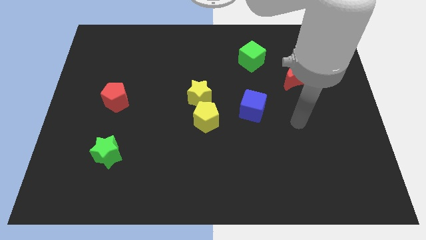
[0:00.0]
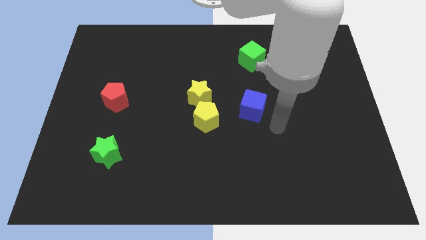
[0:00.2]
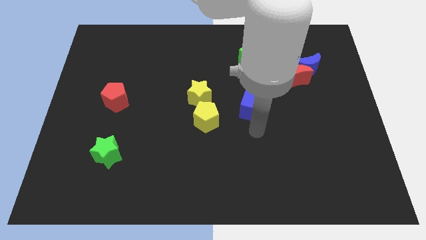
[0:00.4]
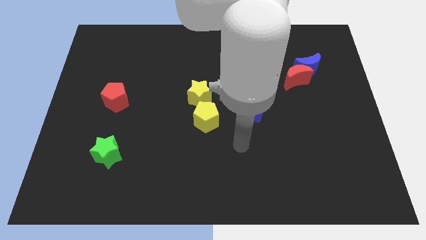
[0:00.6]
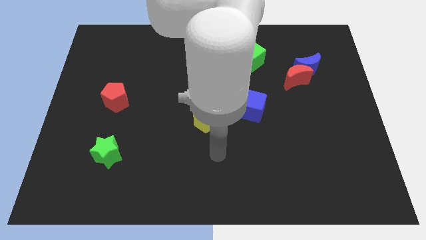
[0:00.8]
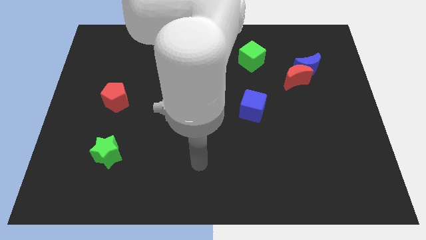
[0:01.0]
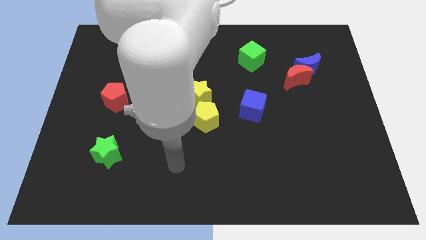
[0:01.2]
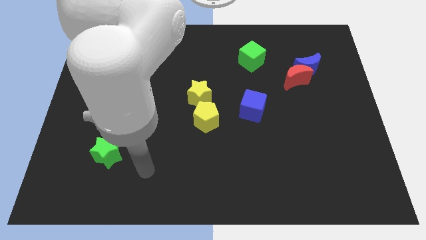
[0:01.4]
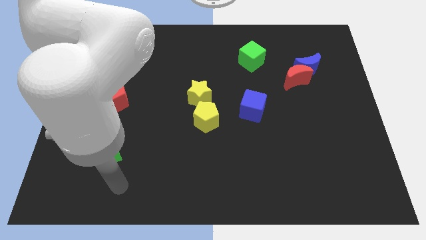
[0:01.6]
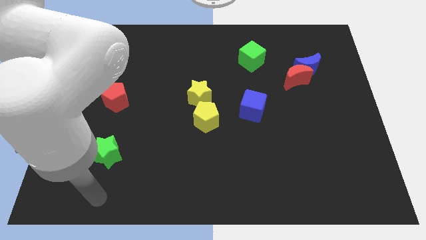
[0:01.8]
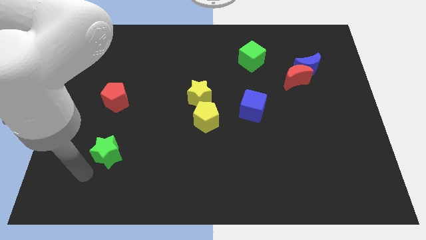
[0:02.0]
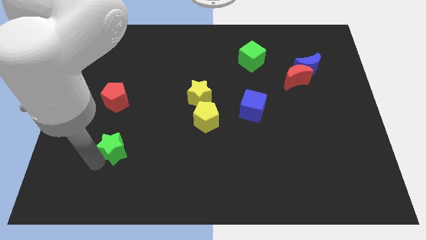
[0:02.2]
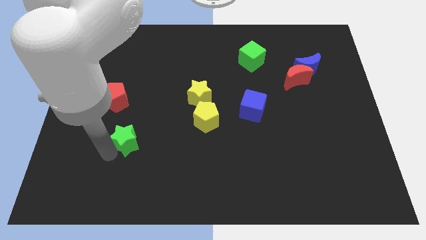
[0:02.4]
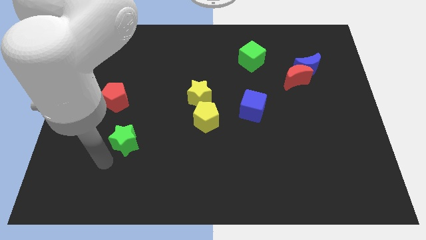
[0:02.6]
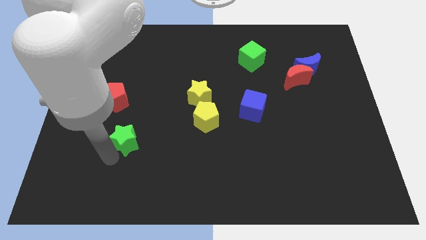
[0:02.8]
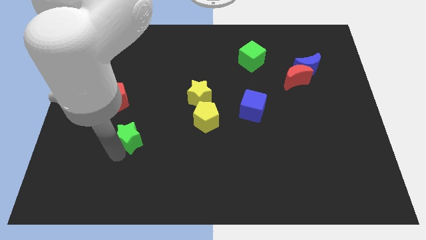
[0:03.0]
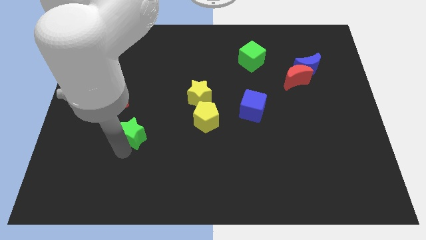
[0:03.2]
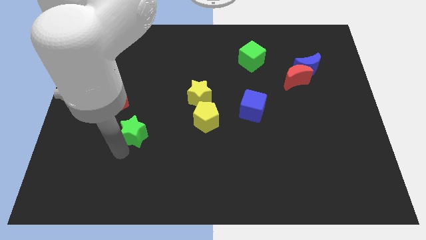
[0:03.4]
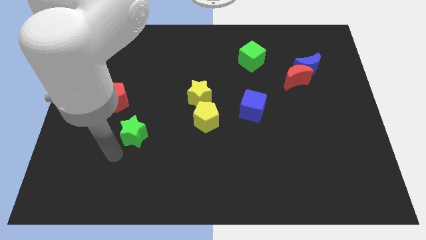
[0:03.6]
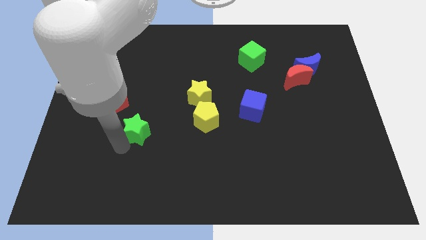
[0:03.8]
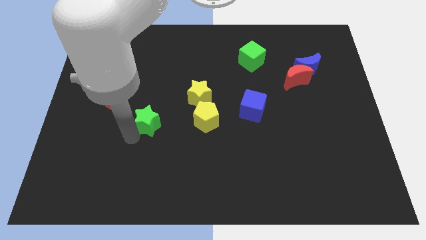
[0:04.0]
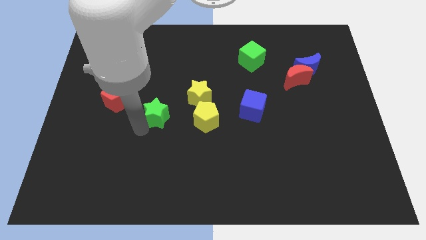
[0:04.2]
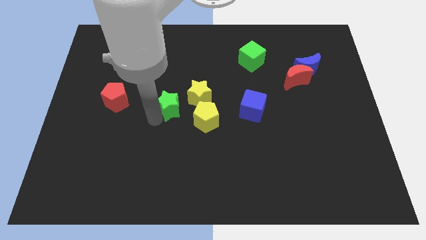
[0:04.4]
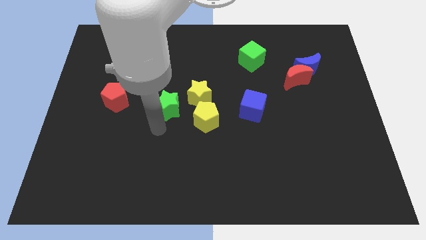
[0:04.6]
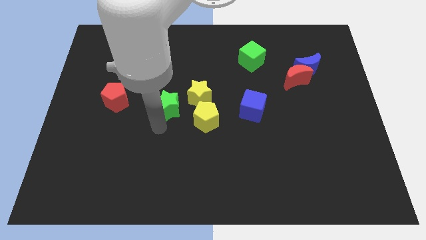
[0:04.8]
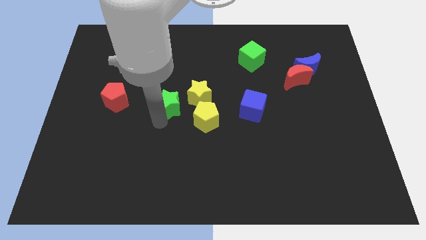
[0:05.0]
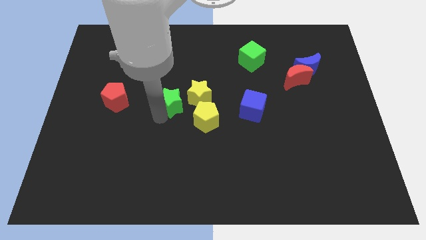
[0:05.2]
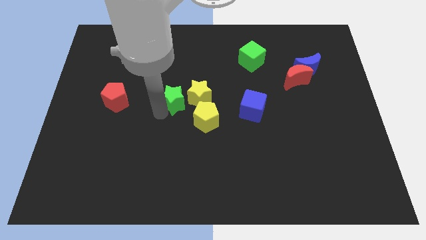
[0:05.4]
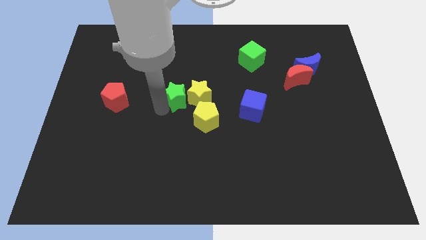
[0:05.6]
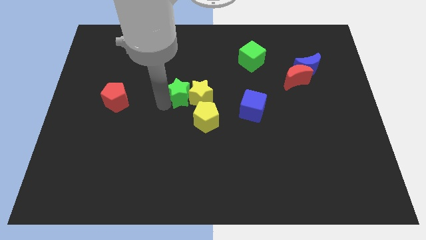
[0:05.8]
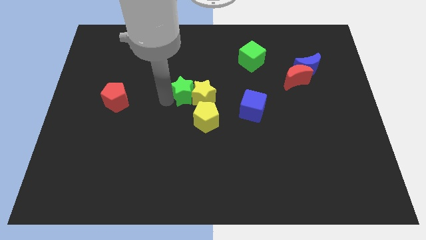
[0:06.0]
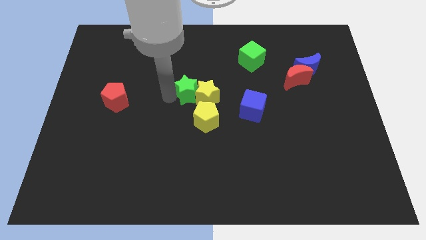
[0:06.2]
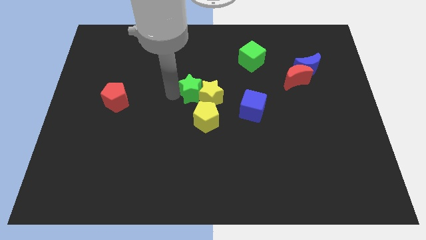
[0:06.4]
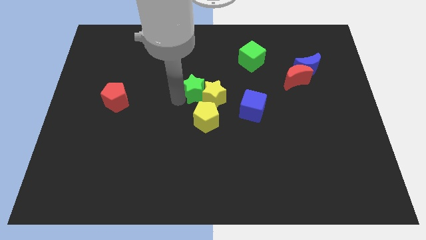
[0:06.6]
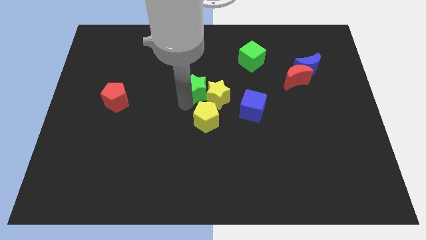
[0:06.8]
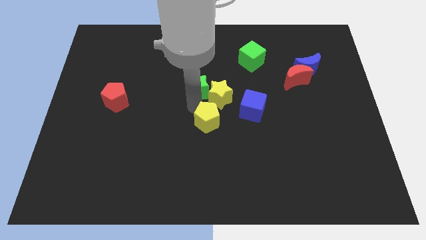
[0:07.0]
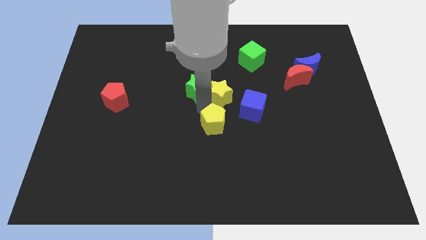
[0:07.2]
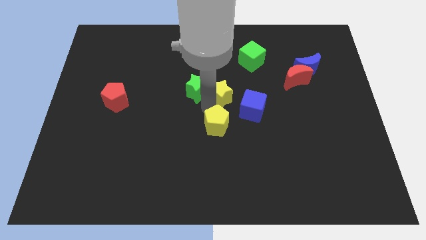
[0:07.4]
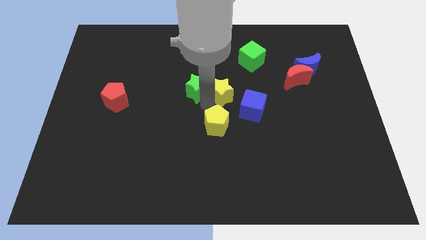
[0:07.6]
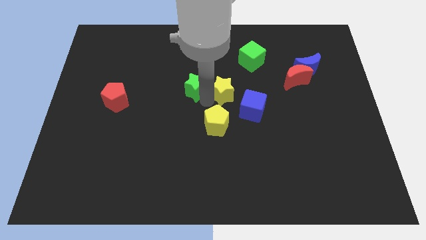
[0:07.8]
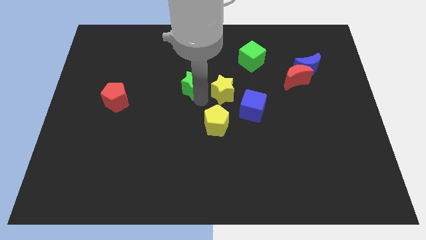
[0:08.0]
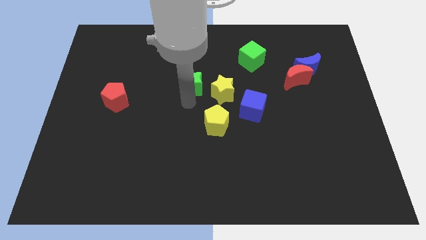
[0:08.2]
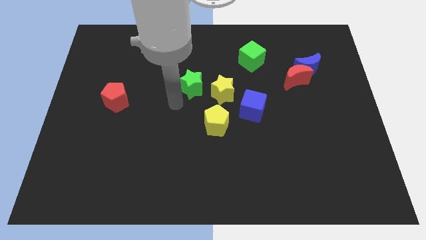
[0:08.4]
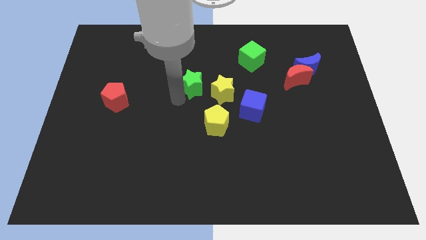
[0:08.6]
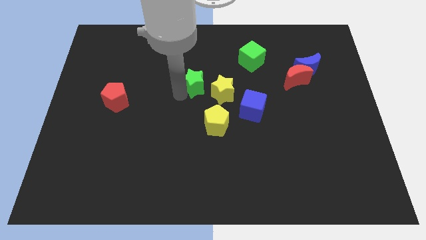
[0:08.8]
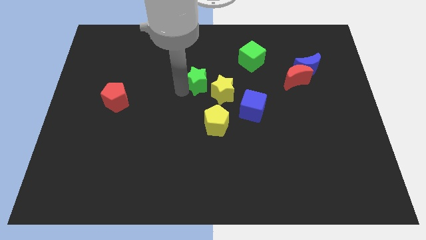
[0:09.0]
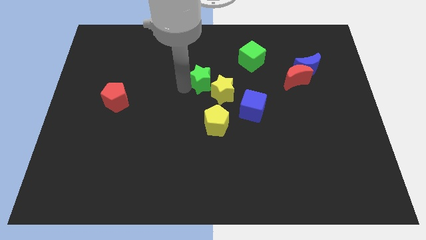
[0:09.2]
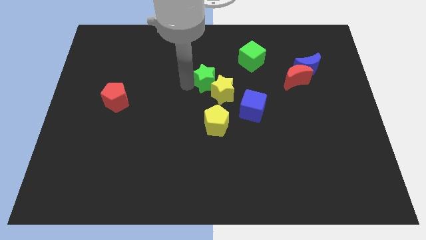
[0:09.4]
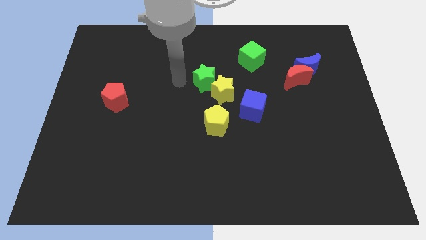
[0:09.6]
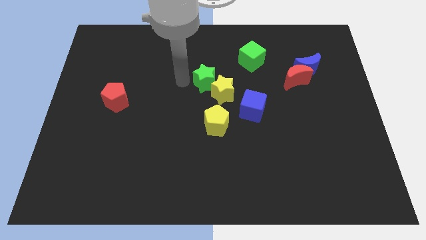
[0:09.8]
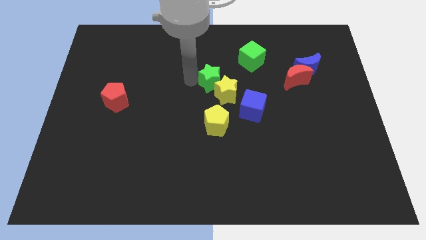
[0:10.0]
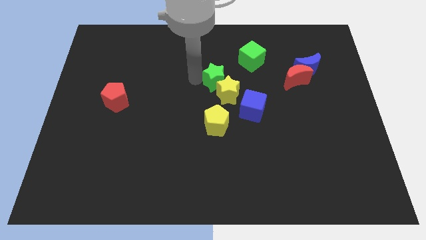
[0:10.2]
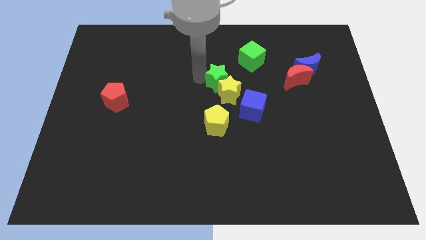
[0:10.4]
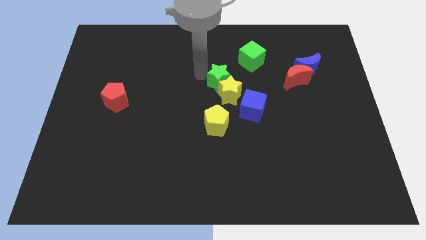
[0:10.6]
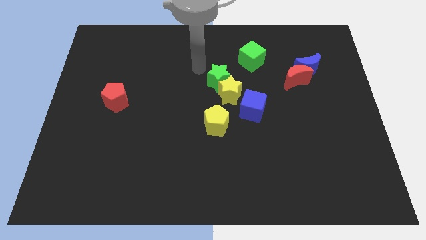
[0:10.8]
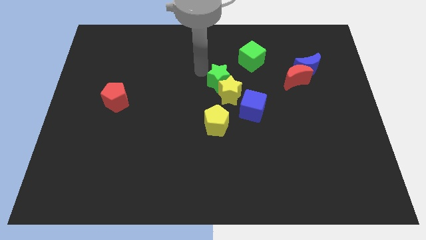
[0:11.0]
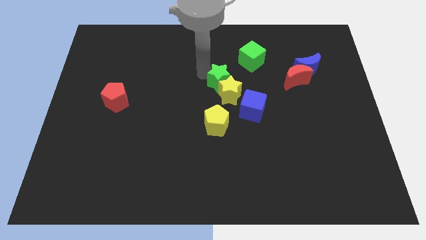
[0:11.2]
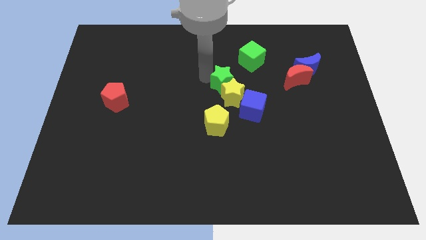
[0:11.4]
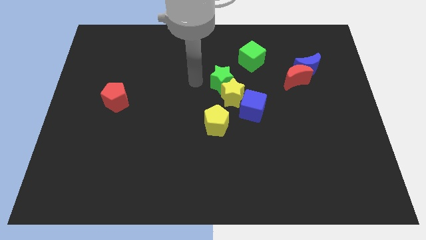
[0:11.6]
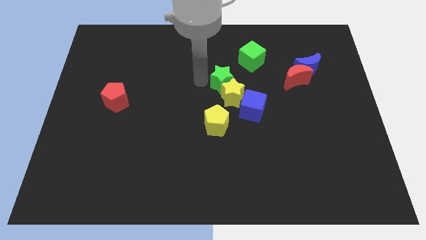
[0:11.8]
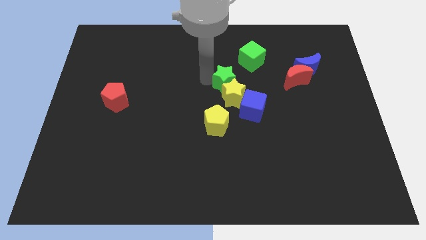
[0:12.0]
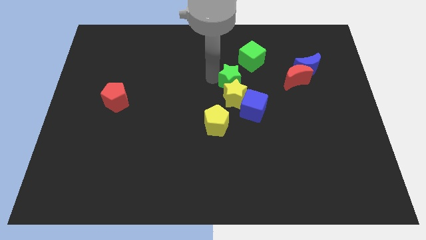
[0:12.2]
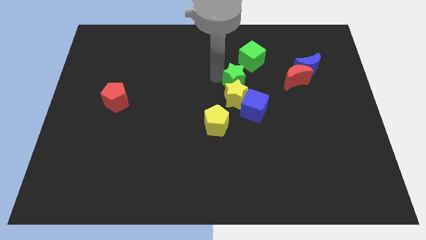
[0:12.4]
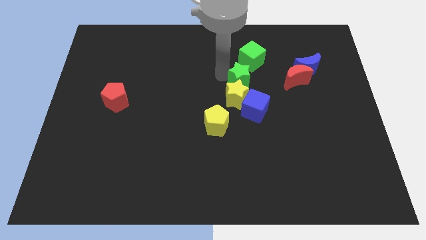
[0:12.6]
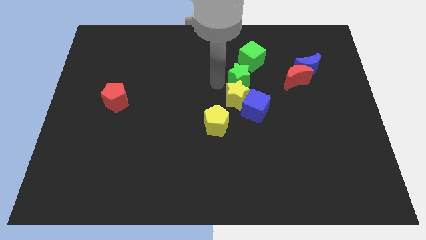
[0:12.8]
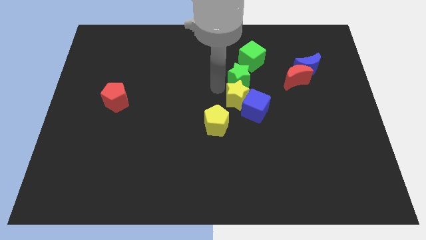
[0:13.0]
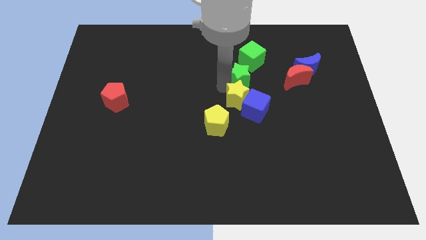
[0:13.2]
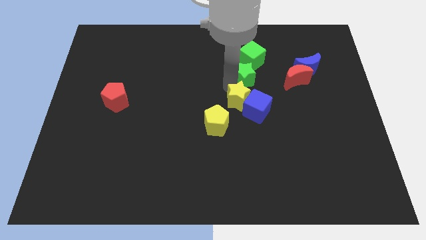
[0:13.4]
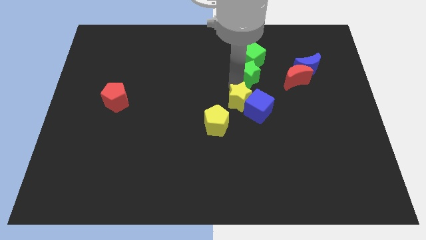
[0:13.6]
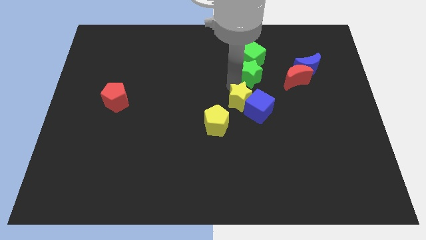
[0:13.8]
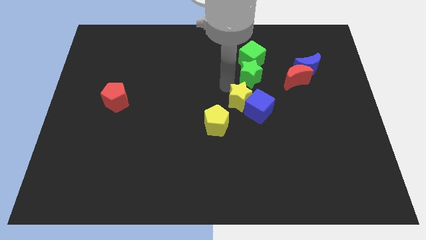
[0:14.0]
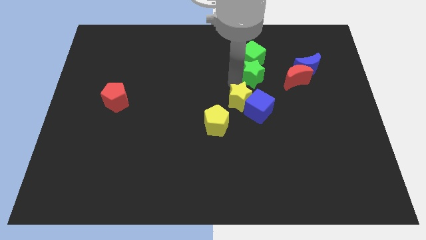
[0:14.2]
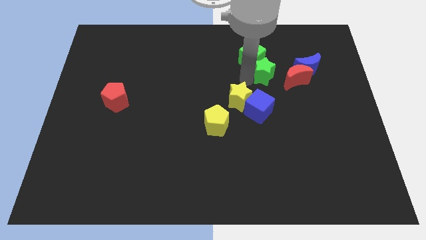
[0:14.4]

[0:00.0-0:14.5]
move the green star to the top left of the red moon
